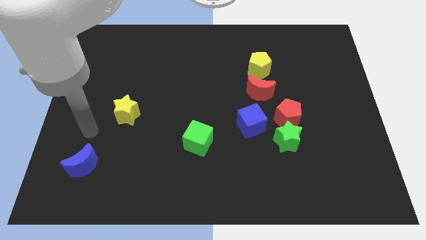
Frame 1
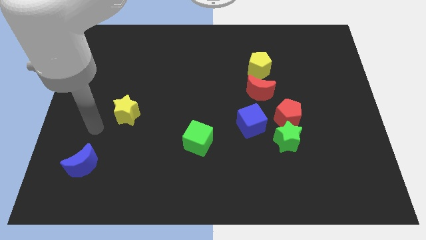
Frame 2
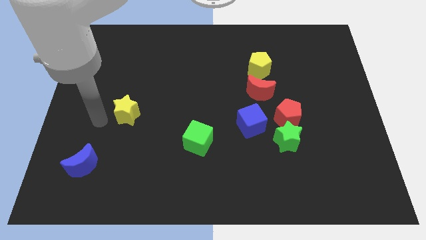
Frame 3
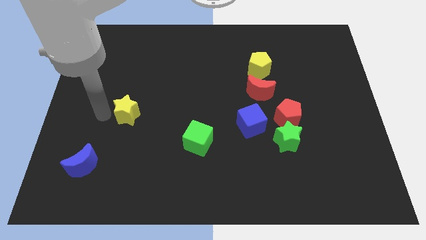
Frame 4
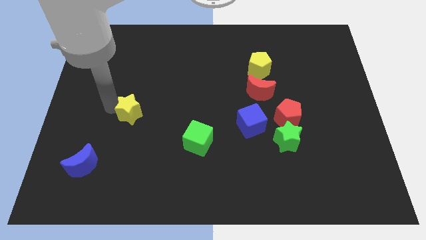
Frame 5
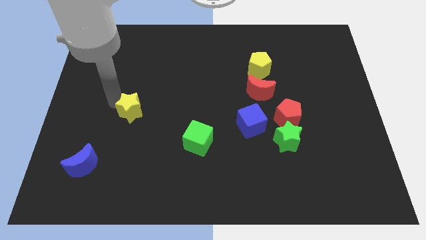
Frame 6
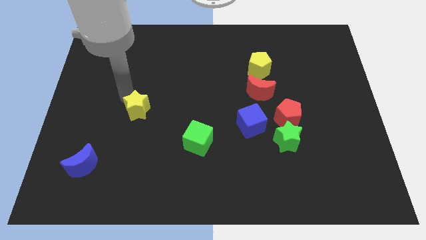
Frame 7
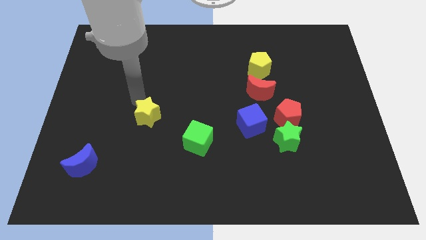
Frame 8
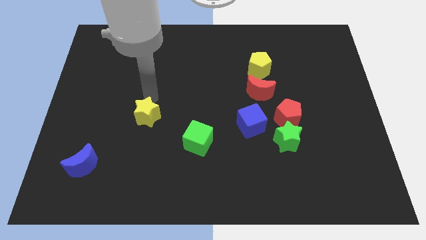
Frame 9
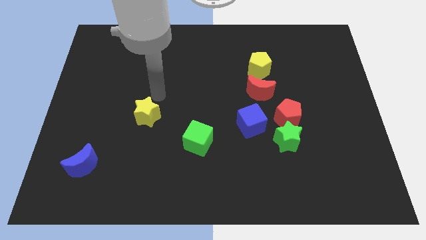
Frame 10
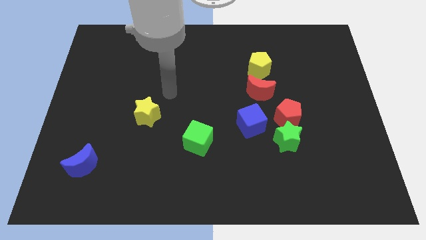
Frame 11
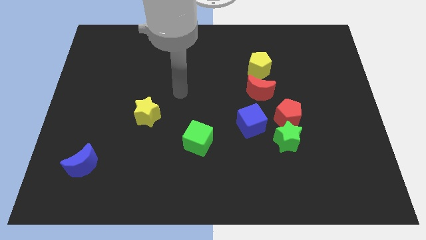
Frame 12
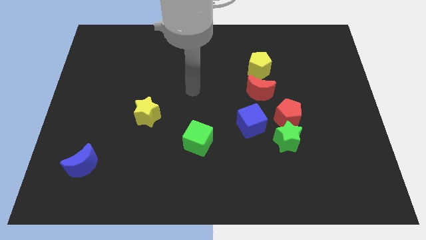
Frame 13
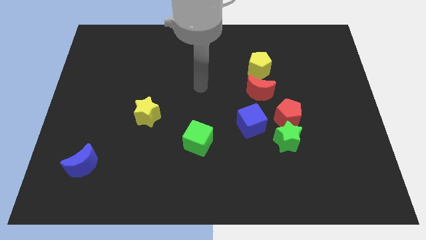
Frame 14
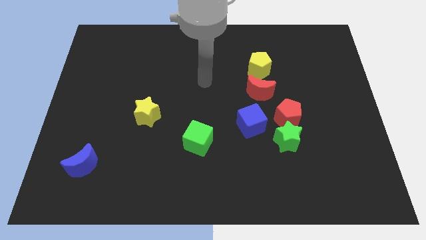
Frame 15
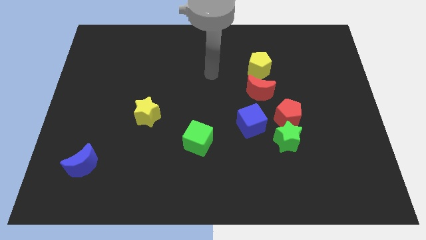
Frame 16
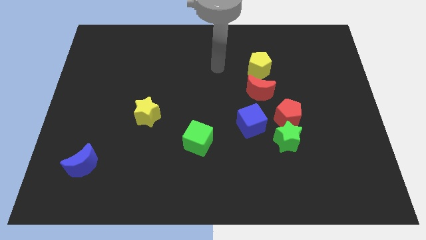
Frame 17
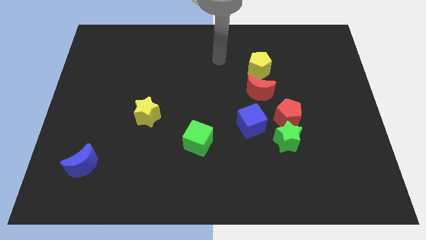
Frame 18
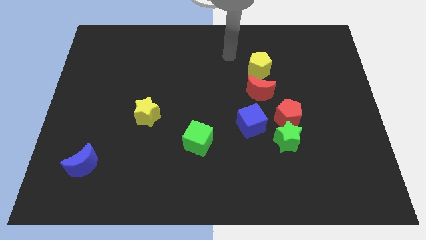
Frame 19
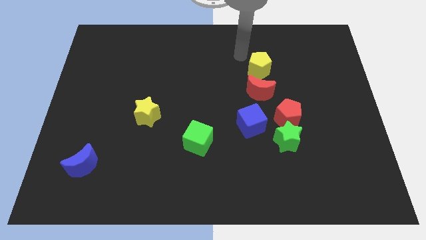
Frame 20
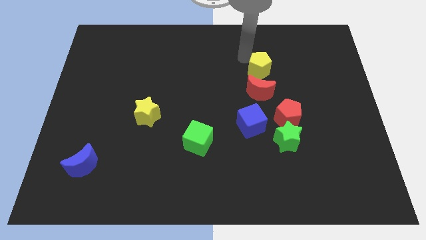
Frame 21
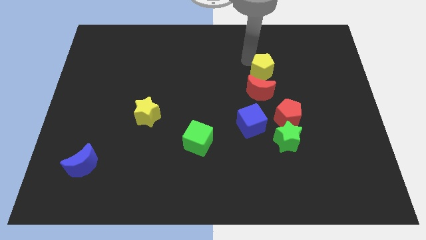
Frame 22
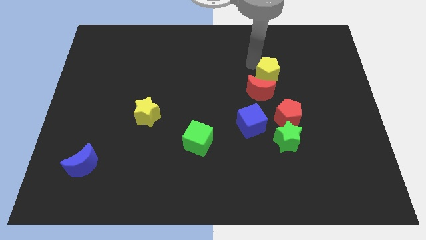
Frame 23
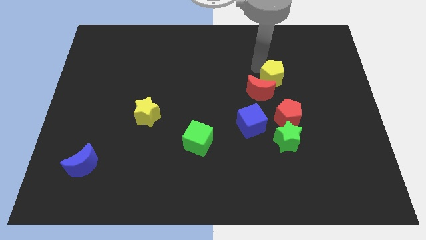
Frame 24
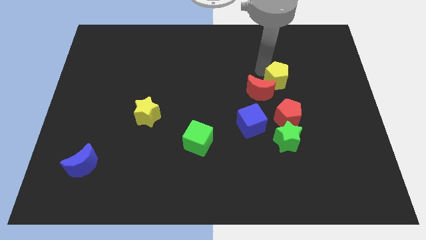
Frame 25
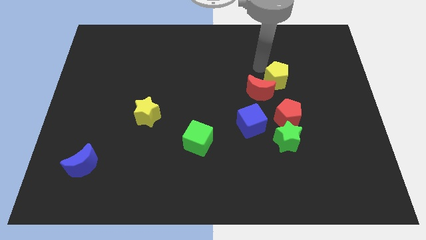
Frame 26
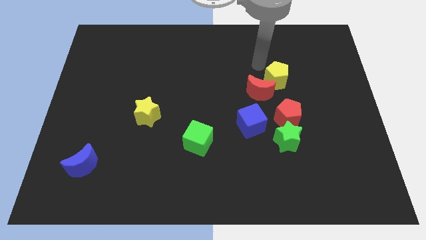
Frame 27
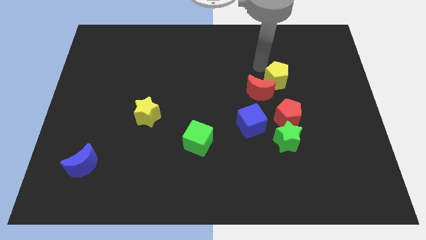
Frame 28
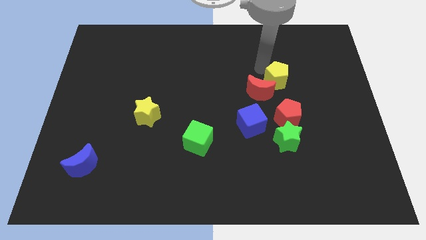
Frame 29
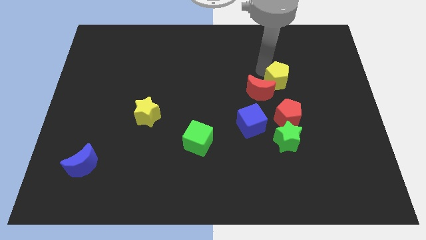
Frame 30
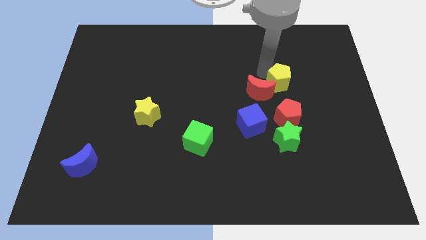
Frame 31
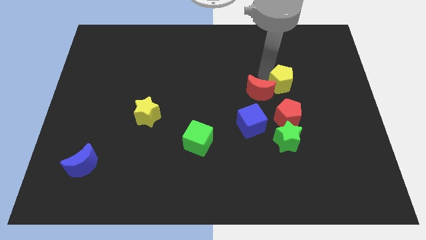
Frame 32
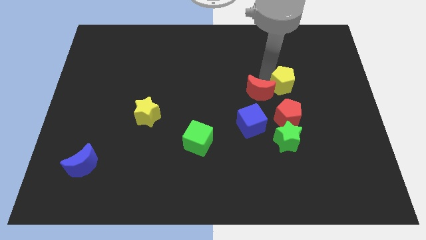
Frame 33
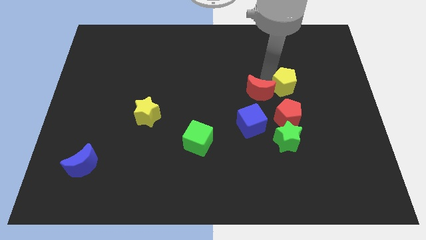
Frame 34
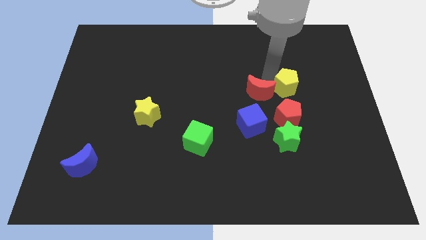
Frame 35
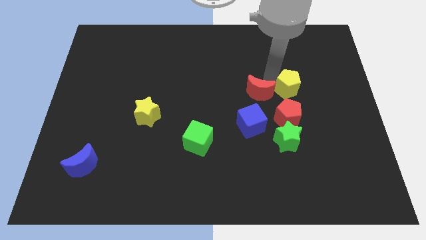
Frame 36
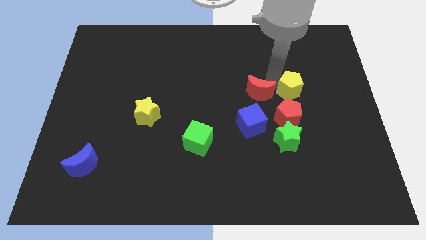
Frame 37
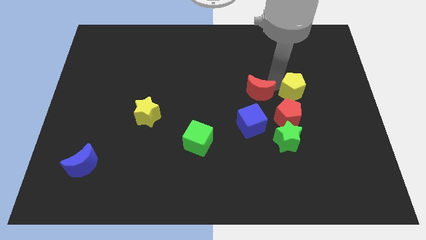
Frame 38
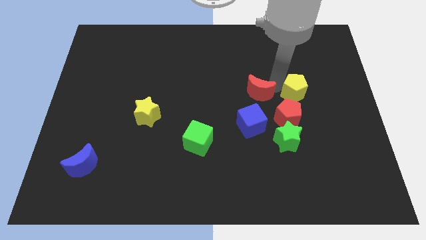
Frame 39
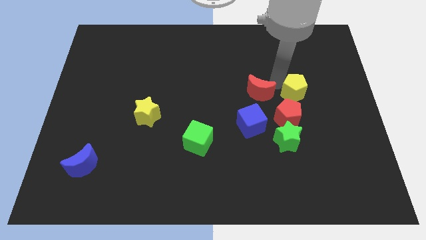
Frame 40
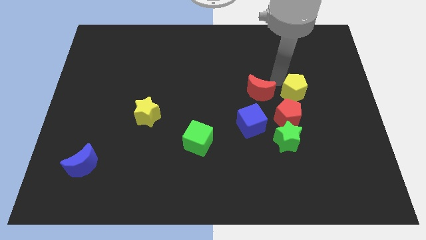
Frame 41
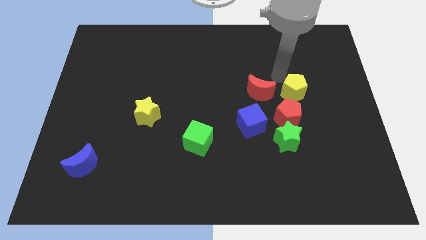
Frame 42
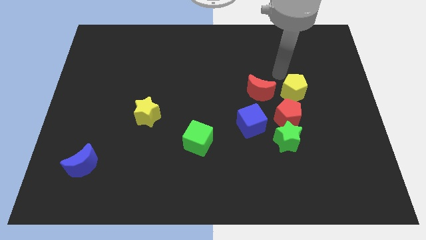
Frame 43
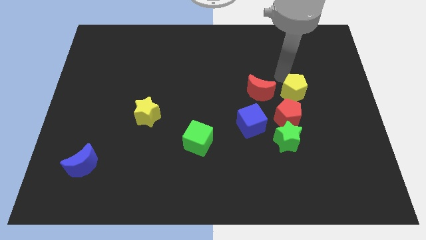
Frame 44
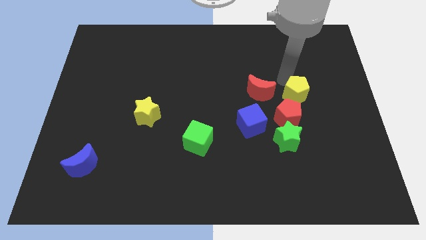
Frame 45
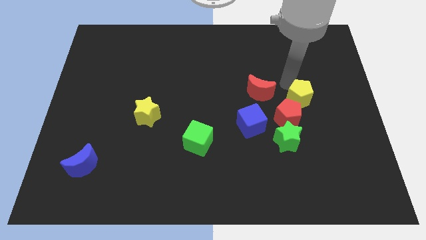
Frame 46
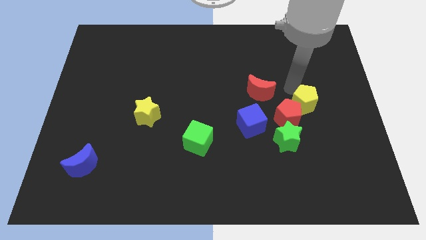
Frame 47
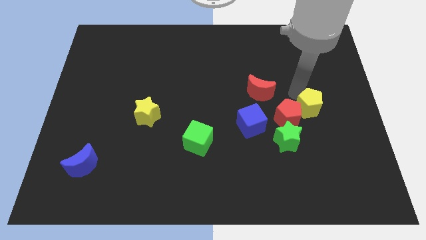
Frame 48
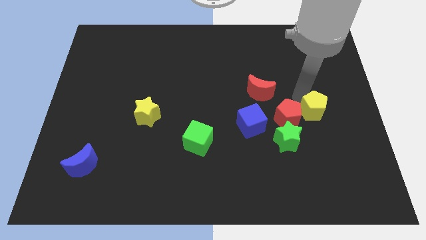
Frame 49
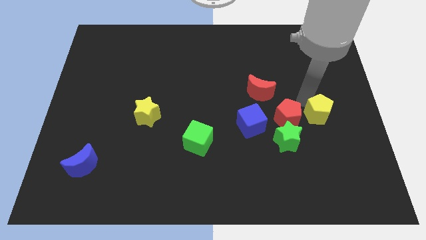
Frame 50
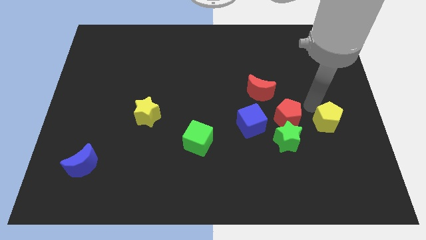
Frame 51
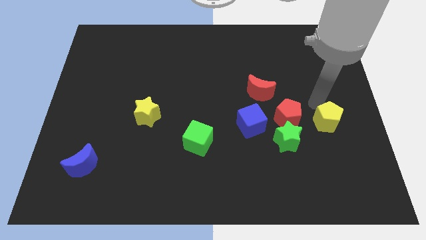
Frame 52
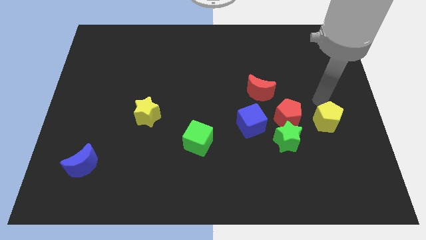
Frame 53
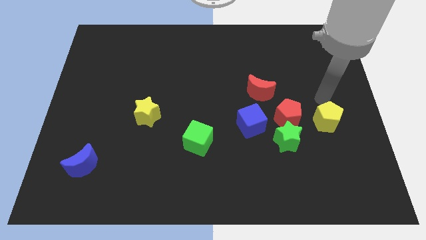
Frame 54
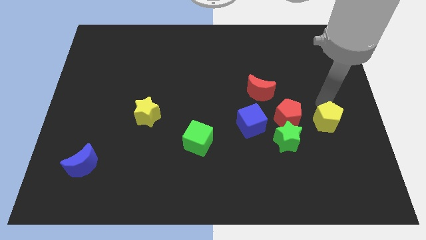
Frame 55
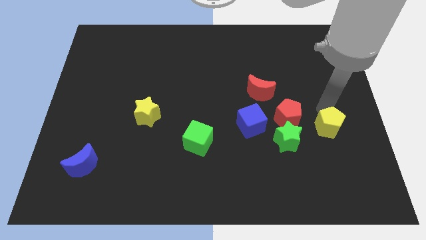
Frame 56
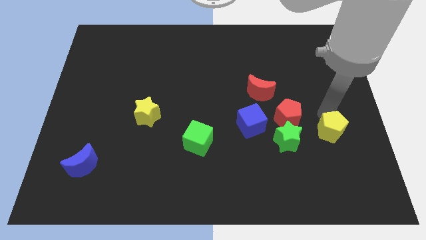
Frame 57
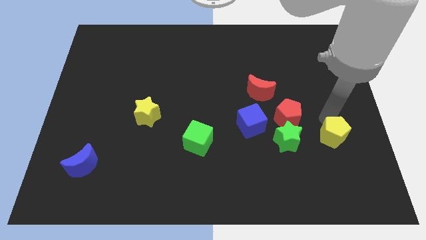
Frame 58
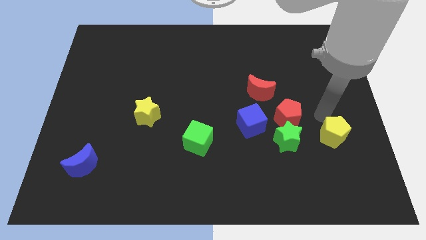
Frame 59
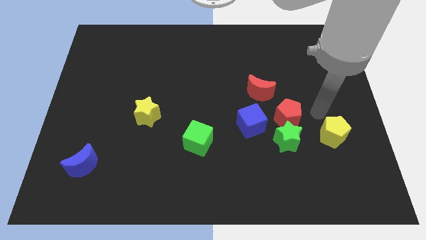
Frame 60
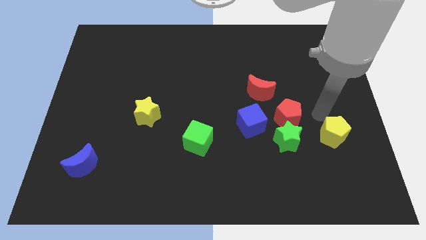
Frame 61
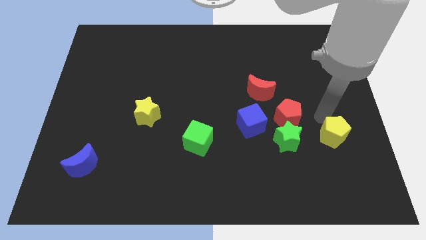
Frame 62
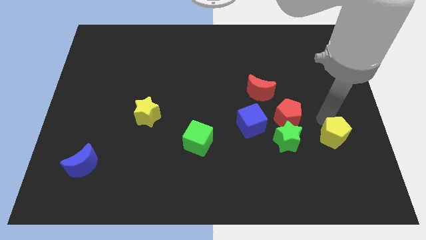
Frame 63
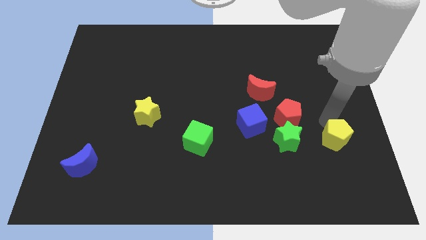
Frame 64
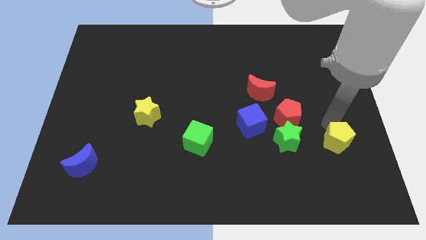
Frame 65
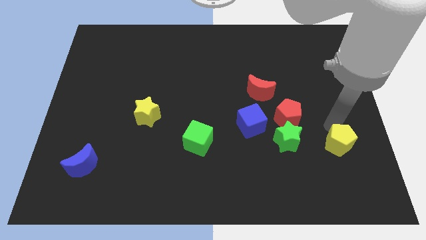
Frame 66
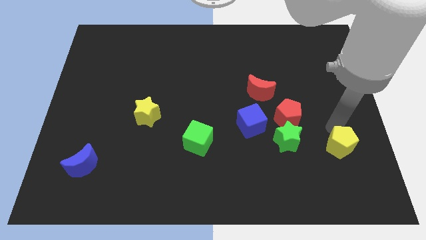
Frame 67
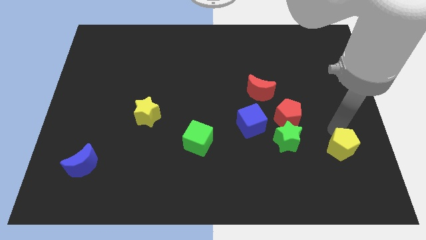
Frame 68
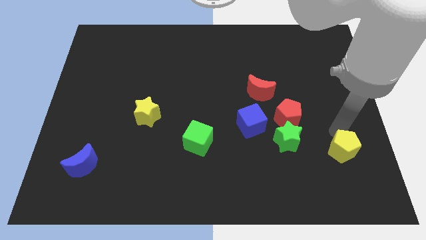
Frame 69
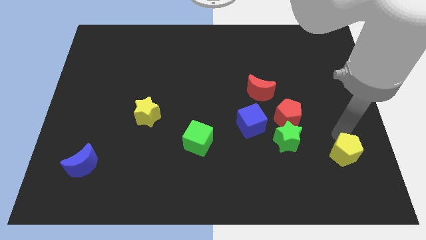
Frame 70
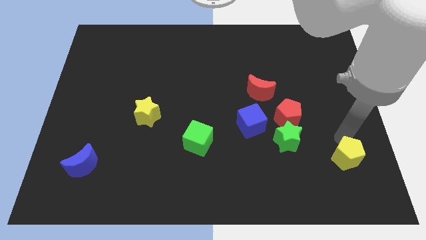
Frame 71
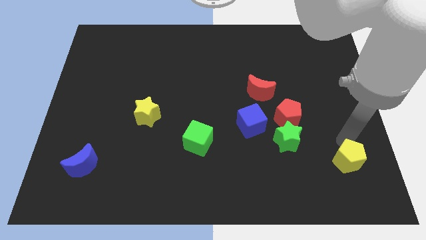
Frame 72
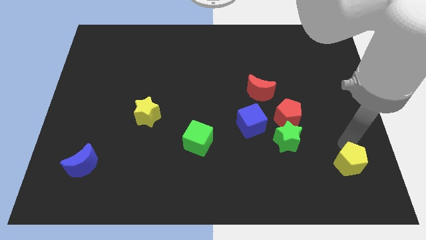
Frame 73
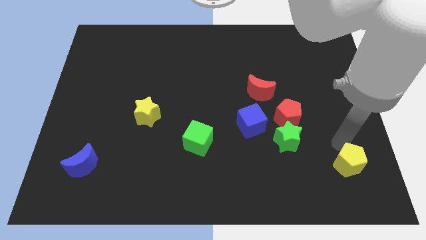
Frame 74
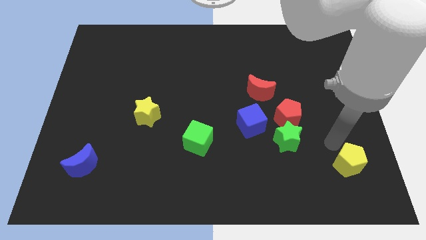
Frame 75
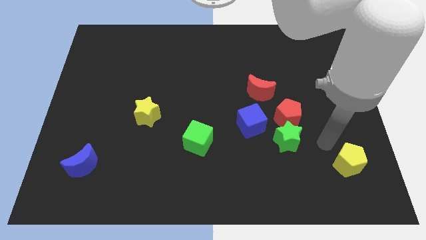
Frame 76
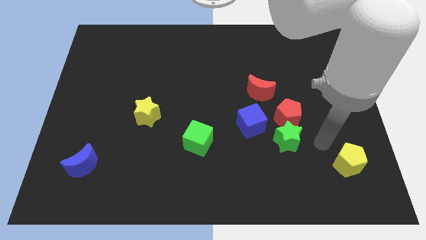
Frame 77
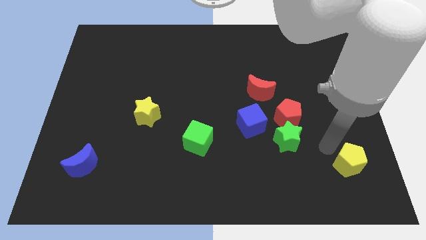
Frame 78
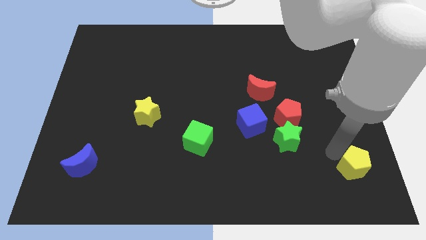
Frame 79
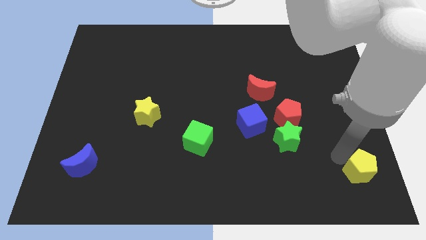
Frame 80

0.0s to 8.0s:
slide the yellow pentagon to the bottom right corner

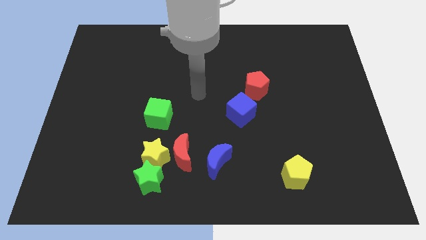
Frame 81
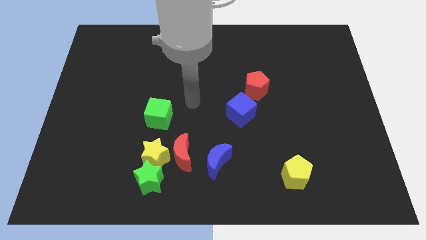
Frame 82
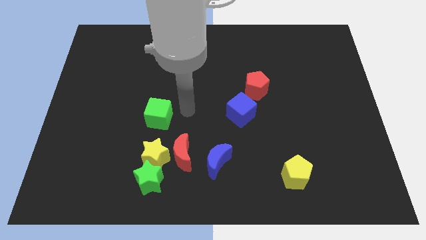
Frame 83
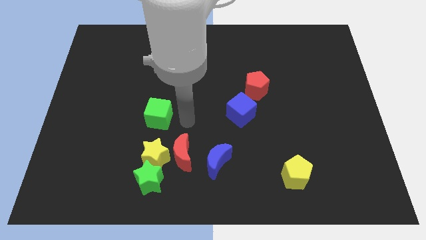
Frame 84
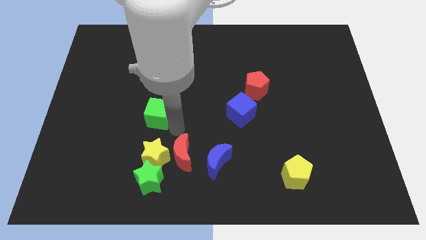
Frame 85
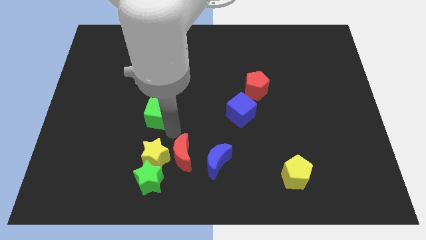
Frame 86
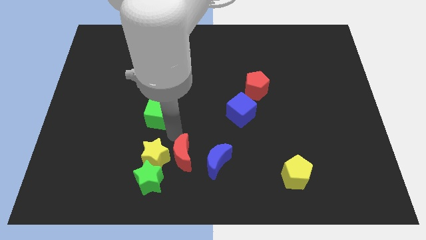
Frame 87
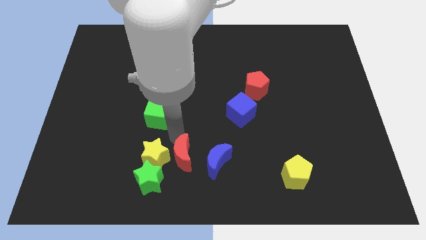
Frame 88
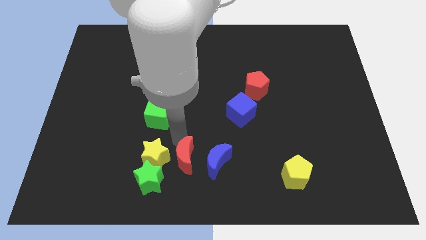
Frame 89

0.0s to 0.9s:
push the red moon to the bottom side
